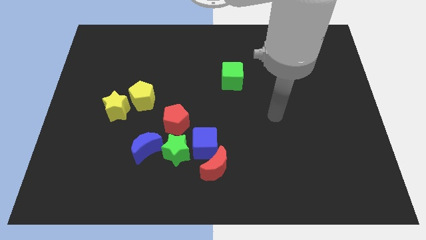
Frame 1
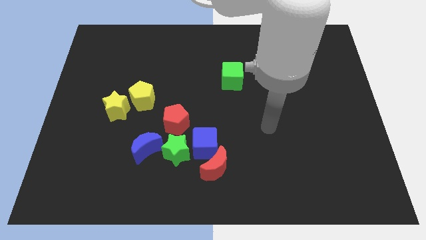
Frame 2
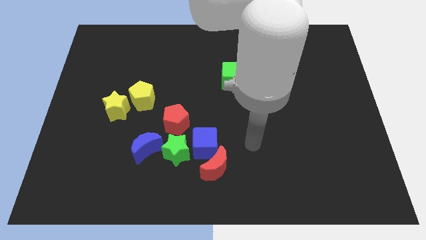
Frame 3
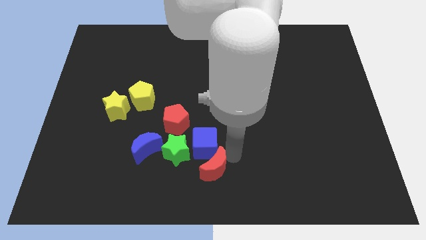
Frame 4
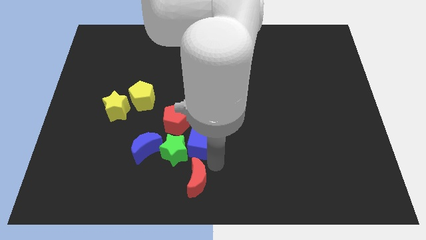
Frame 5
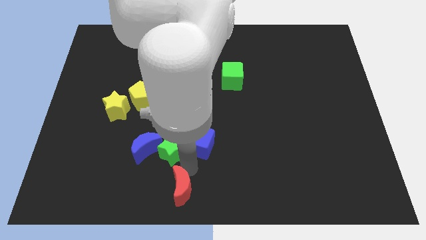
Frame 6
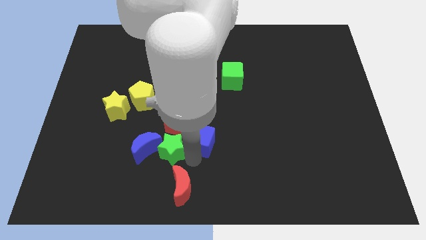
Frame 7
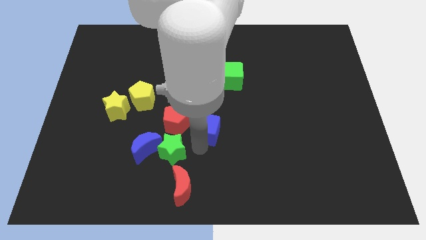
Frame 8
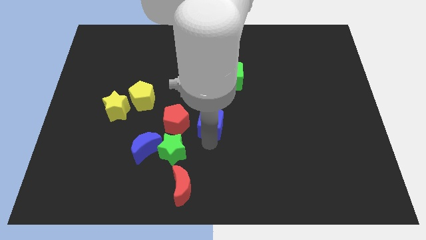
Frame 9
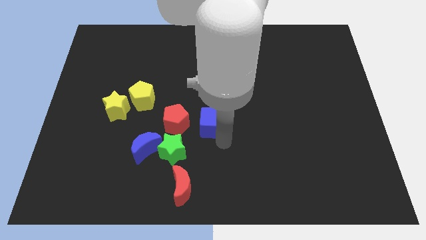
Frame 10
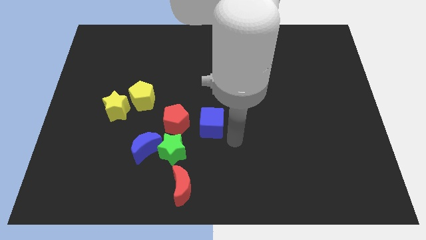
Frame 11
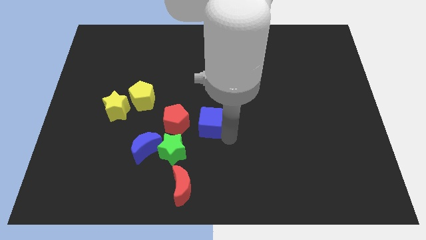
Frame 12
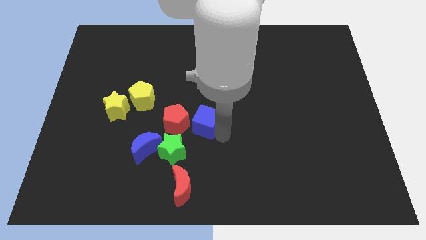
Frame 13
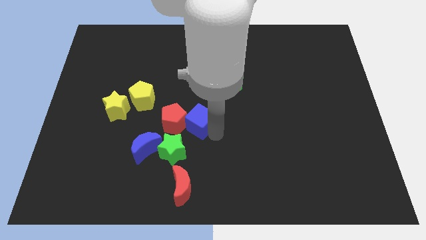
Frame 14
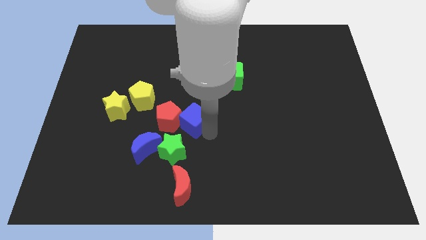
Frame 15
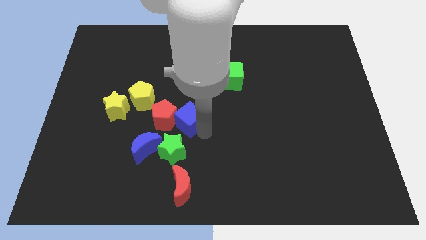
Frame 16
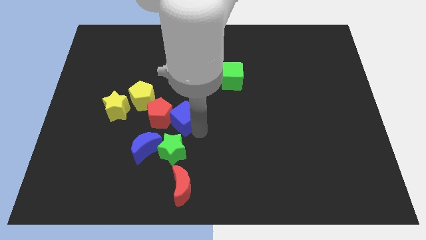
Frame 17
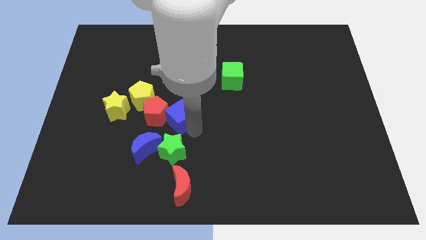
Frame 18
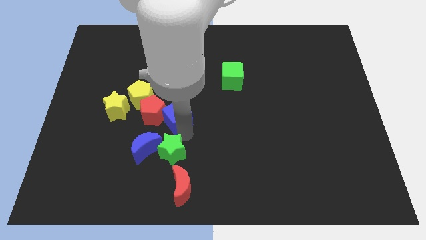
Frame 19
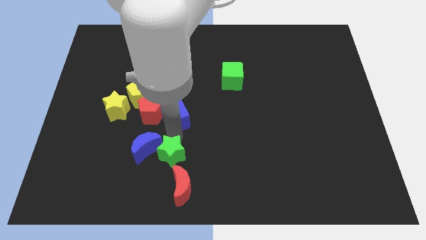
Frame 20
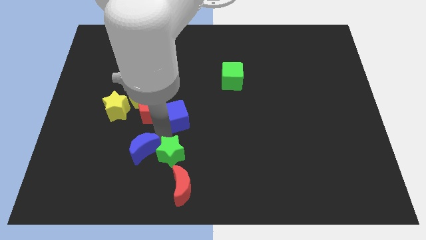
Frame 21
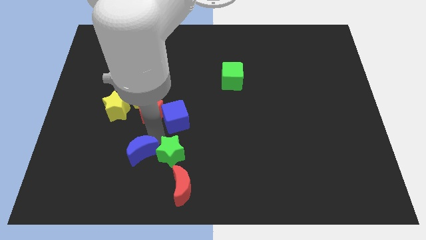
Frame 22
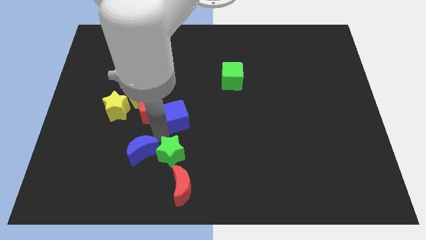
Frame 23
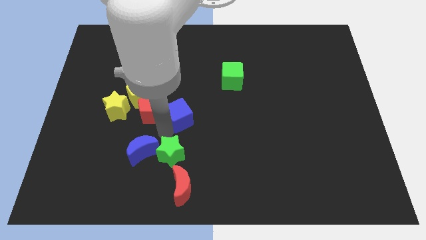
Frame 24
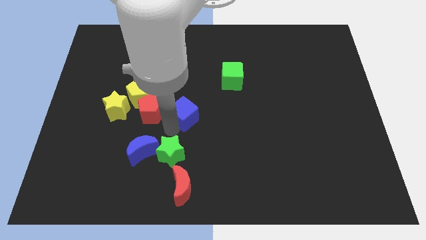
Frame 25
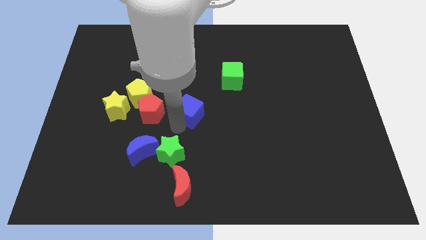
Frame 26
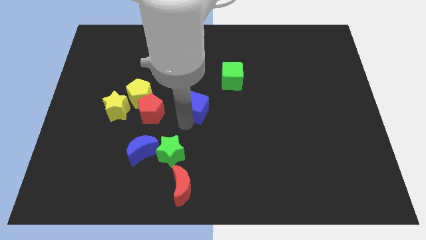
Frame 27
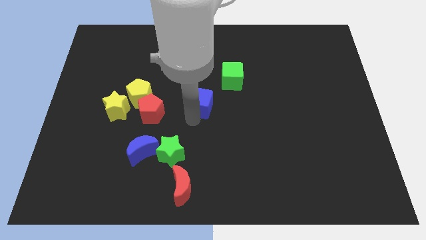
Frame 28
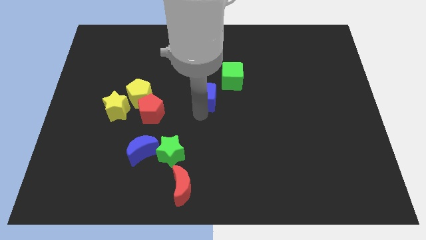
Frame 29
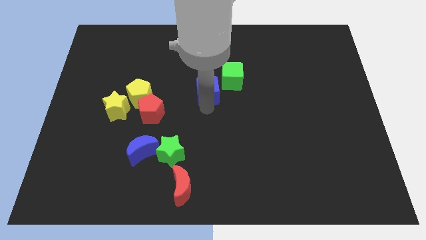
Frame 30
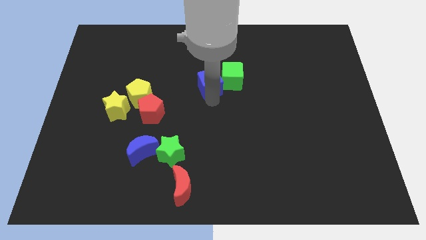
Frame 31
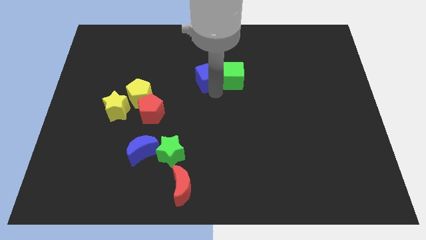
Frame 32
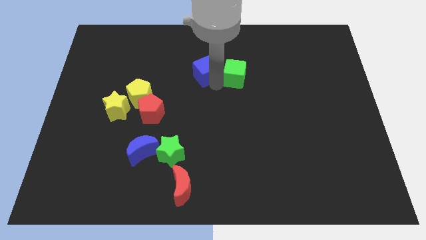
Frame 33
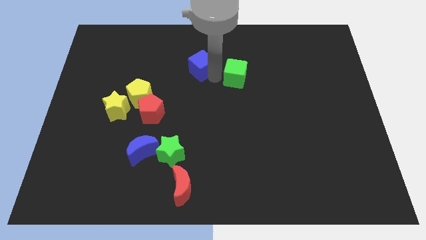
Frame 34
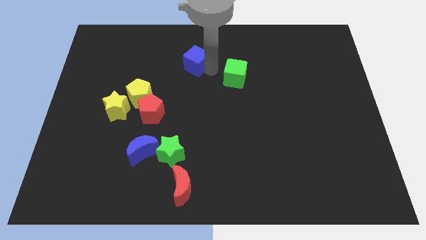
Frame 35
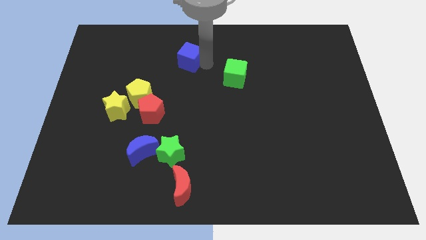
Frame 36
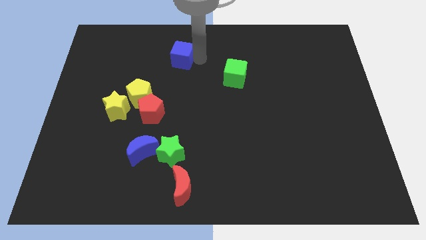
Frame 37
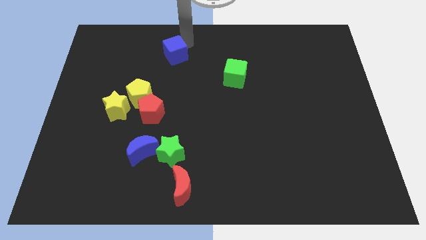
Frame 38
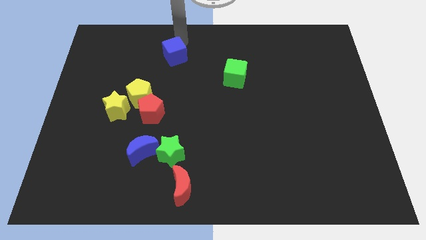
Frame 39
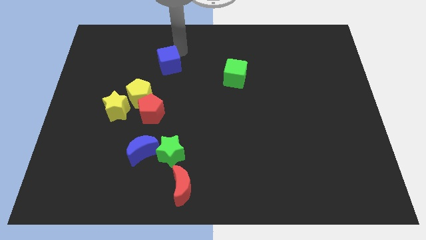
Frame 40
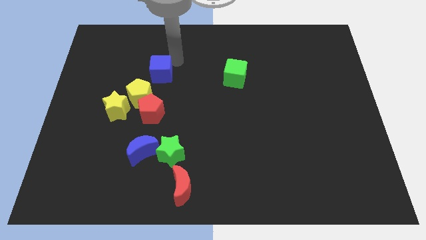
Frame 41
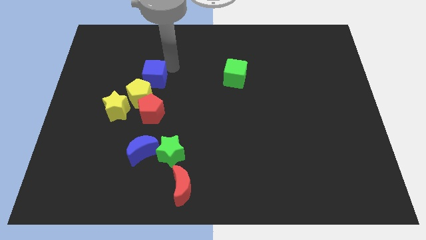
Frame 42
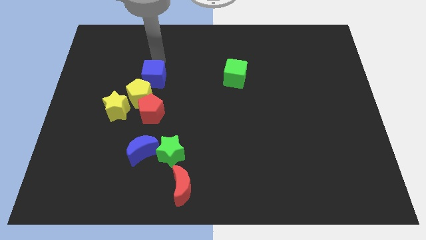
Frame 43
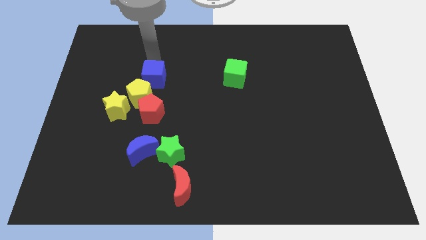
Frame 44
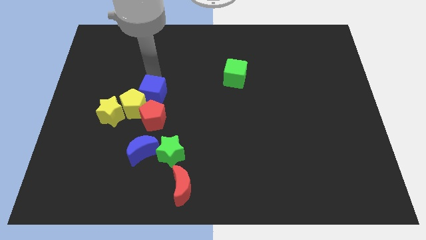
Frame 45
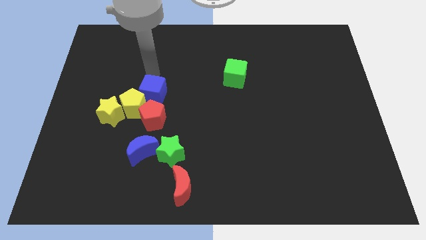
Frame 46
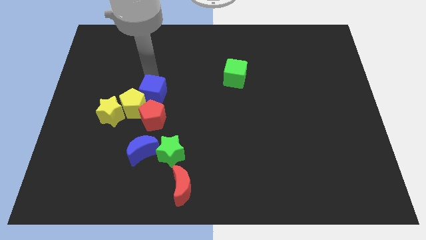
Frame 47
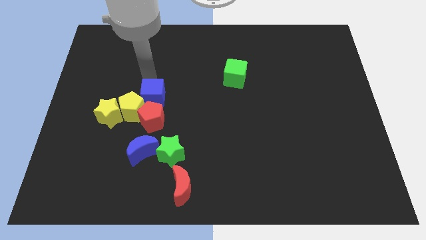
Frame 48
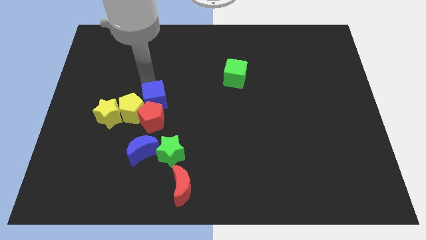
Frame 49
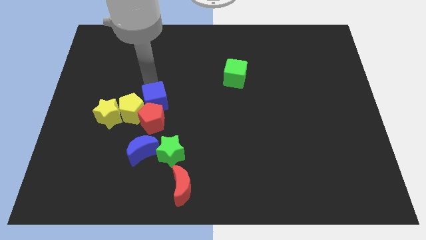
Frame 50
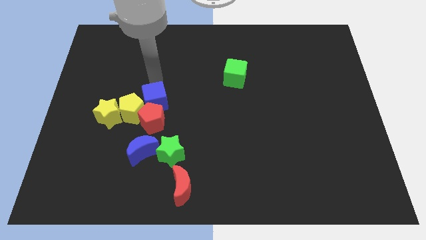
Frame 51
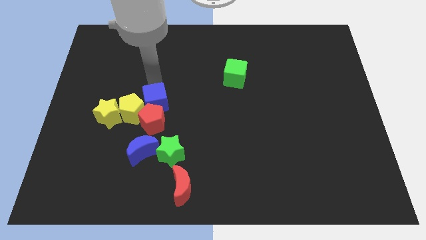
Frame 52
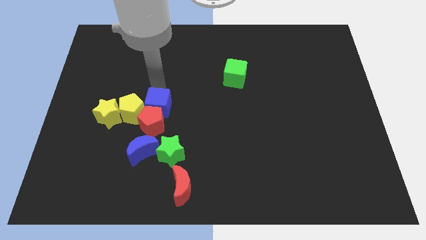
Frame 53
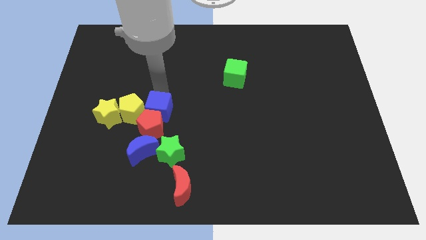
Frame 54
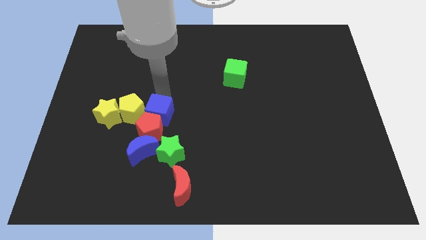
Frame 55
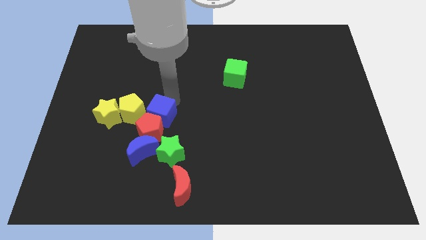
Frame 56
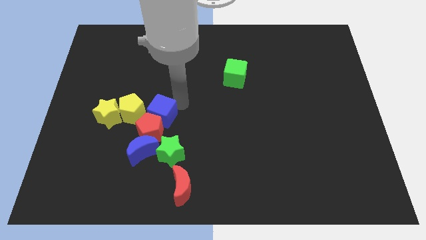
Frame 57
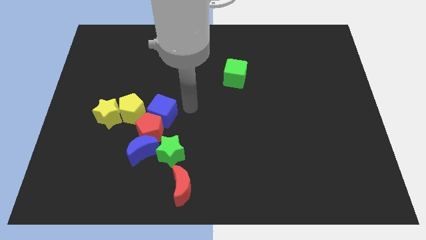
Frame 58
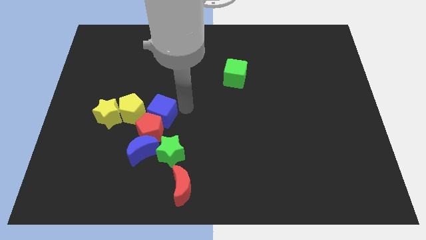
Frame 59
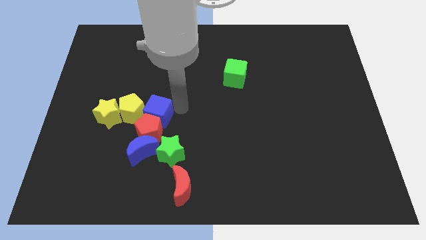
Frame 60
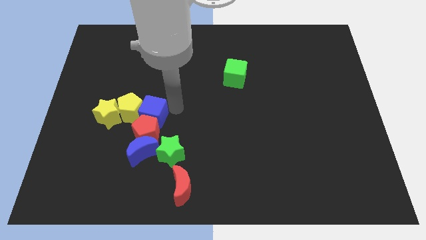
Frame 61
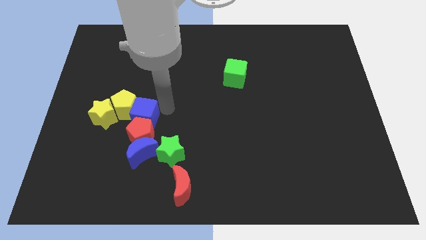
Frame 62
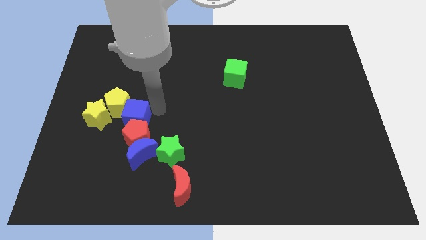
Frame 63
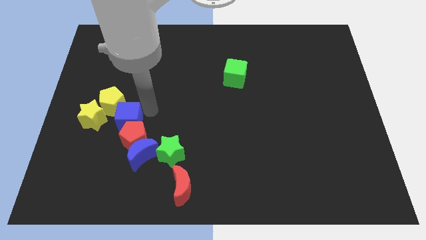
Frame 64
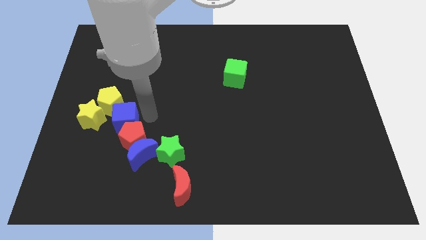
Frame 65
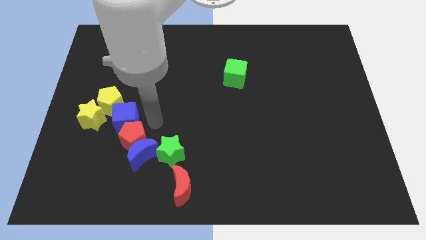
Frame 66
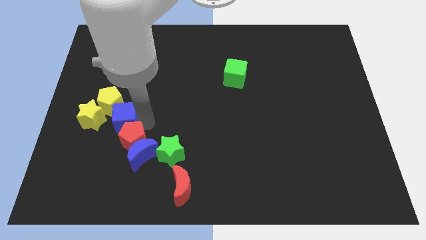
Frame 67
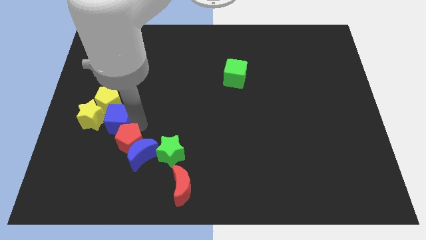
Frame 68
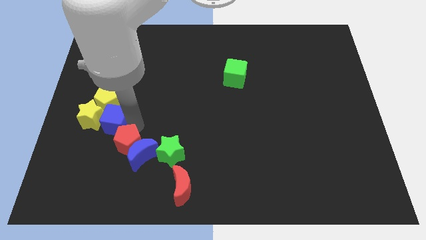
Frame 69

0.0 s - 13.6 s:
push the blue cube close to the yellow star

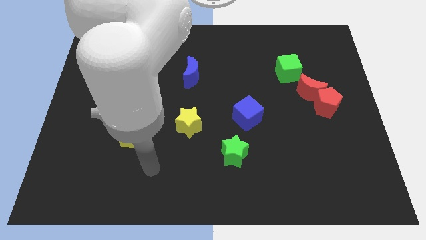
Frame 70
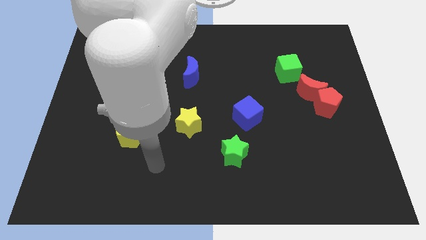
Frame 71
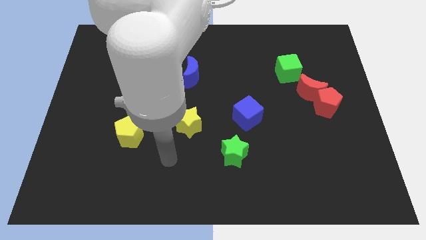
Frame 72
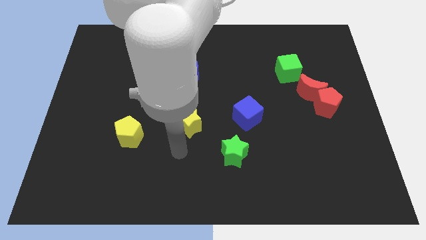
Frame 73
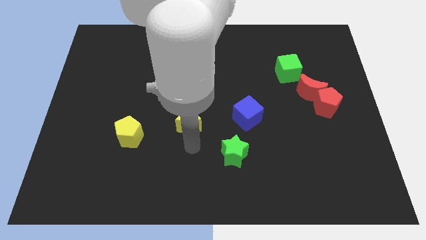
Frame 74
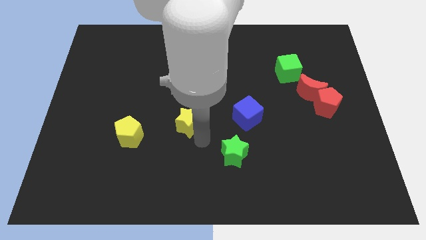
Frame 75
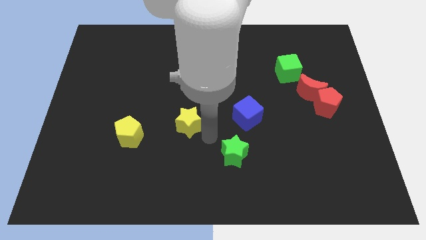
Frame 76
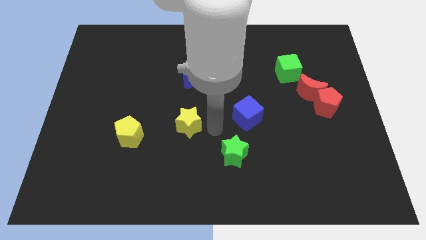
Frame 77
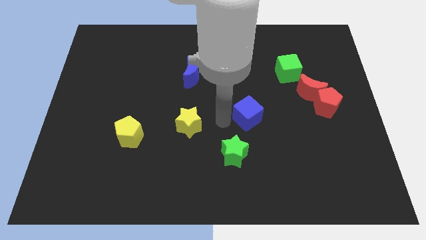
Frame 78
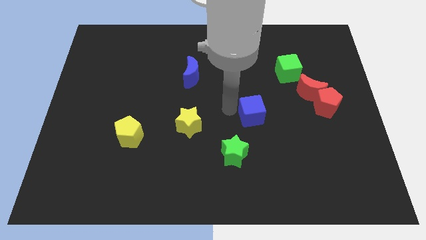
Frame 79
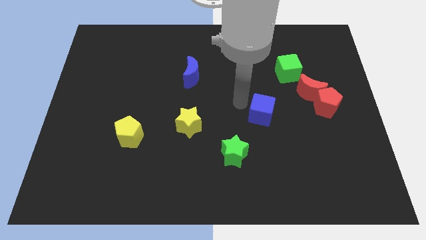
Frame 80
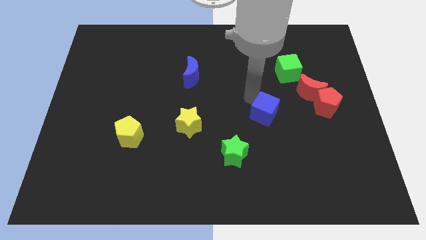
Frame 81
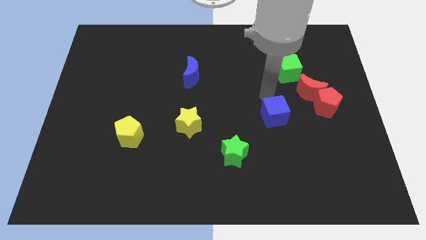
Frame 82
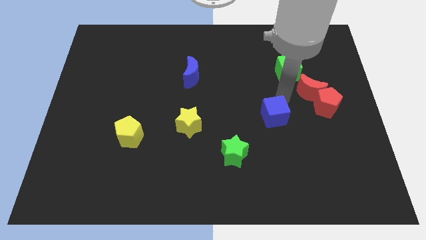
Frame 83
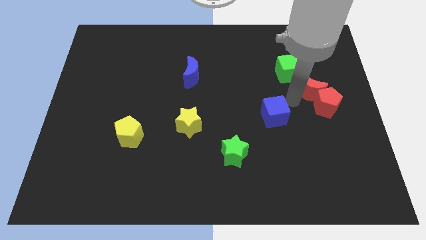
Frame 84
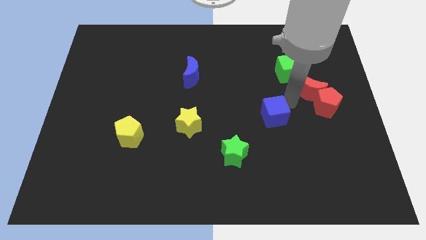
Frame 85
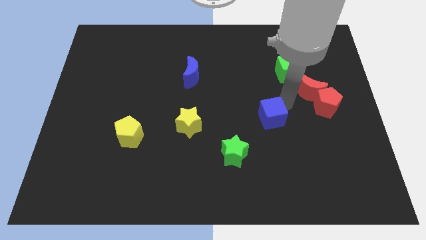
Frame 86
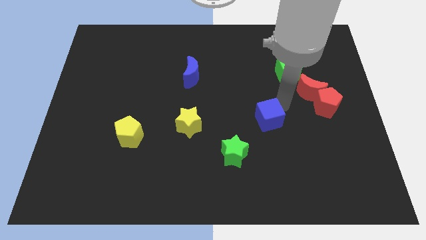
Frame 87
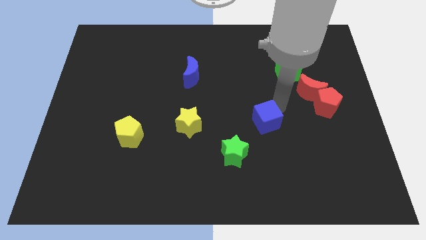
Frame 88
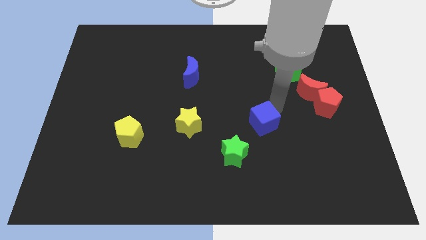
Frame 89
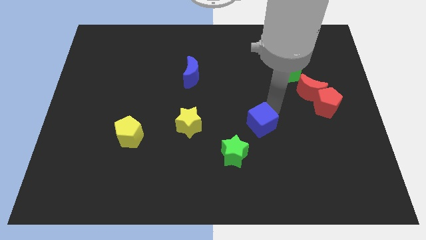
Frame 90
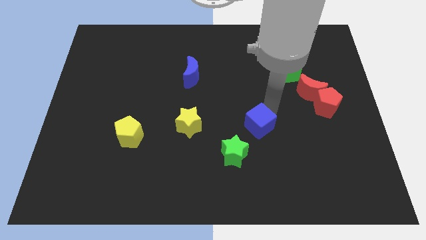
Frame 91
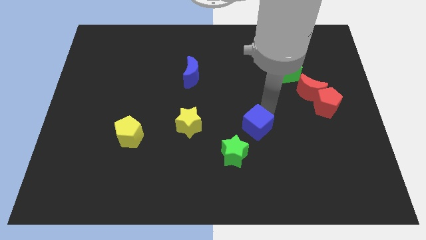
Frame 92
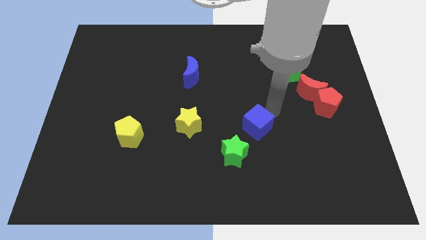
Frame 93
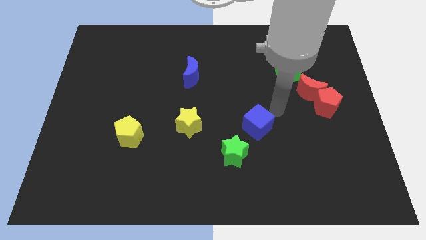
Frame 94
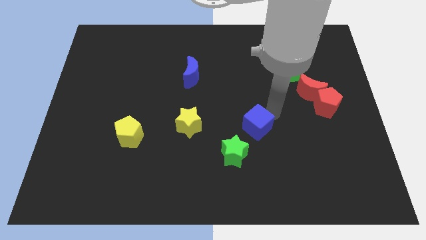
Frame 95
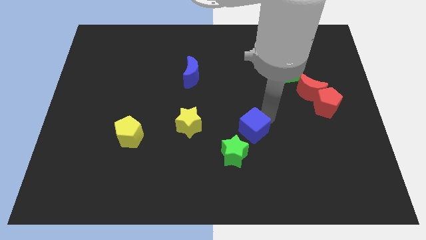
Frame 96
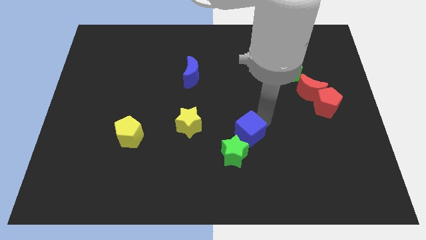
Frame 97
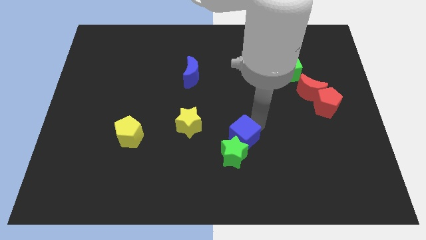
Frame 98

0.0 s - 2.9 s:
push the blue cube close to the green star
